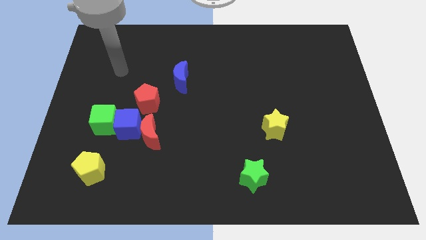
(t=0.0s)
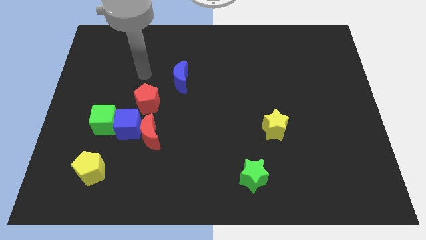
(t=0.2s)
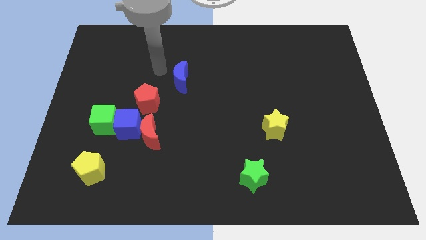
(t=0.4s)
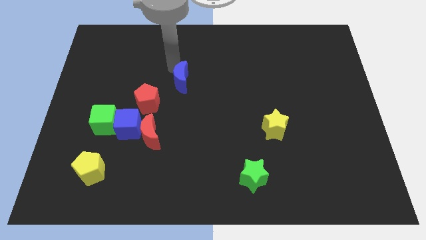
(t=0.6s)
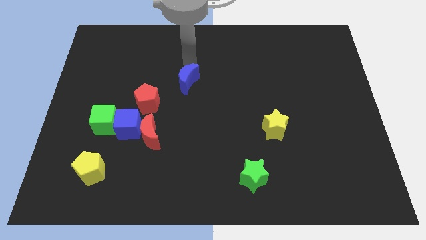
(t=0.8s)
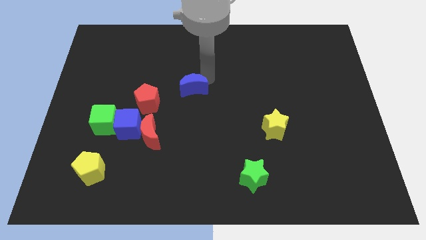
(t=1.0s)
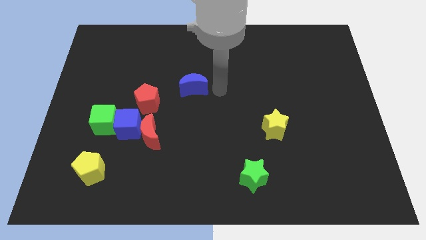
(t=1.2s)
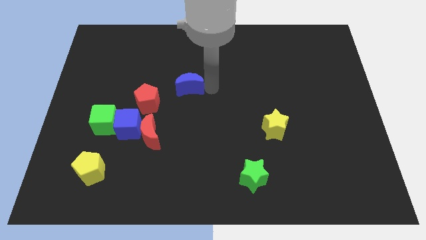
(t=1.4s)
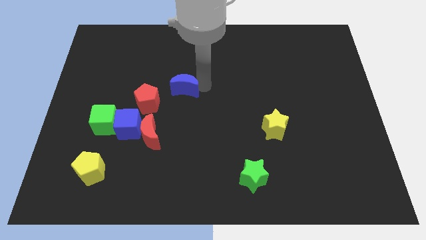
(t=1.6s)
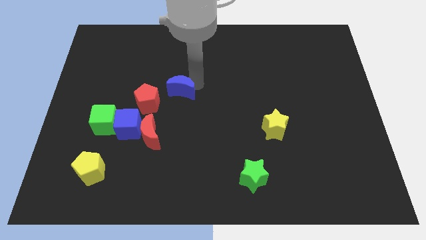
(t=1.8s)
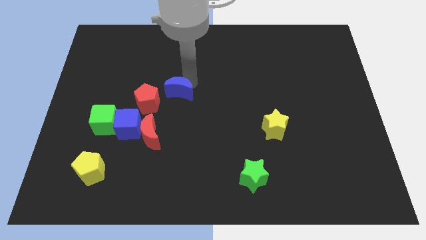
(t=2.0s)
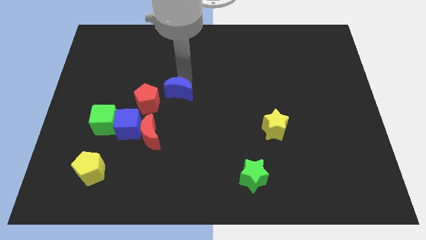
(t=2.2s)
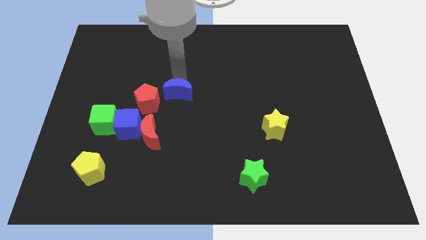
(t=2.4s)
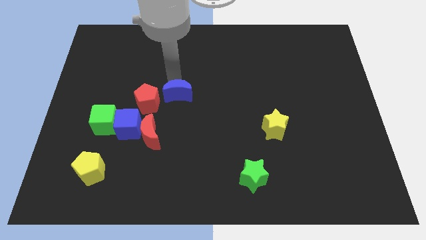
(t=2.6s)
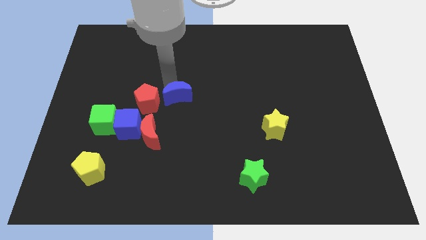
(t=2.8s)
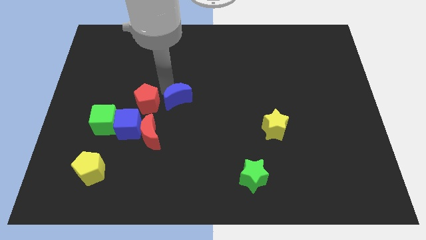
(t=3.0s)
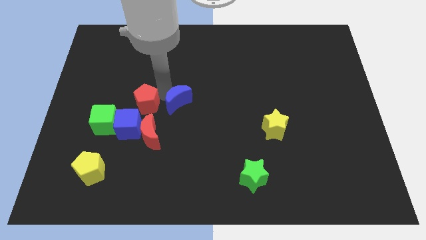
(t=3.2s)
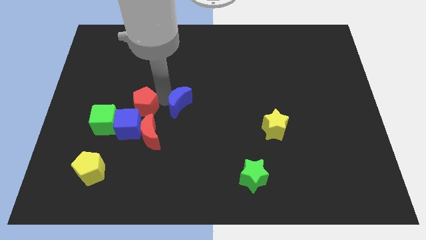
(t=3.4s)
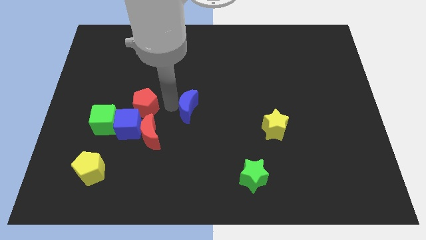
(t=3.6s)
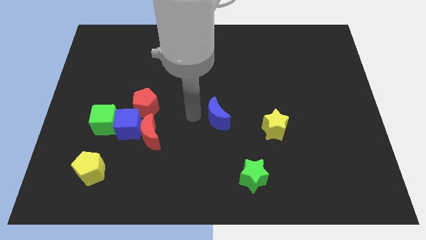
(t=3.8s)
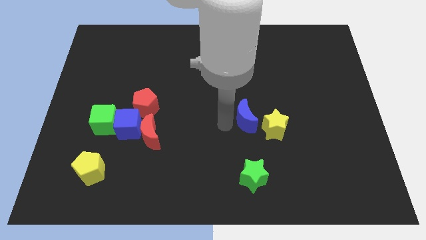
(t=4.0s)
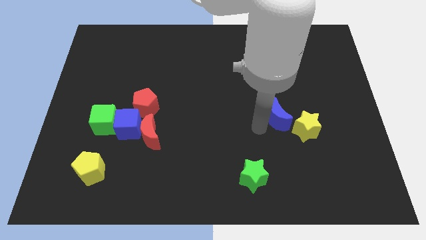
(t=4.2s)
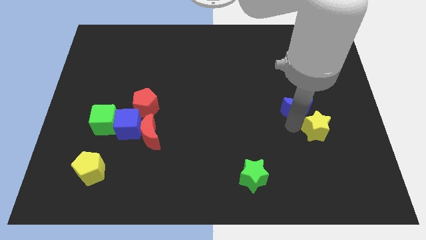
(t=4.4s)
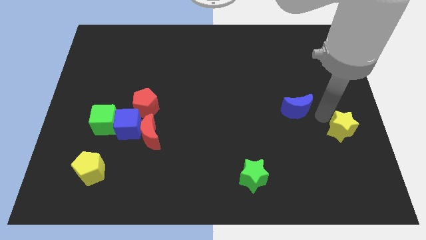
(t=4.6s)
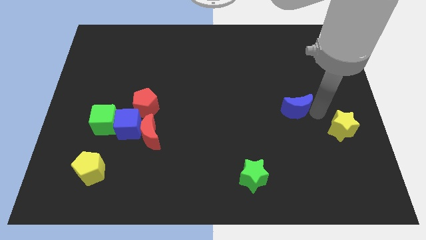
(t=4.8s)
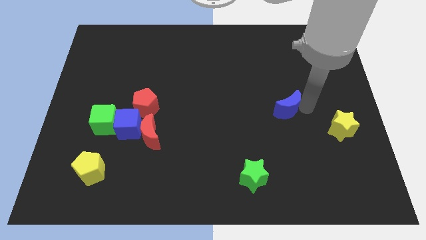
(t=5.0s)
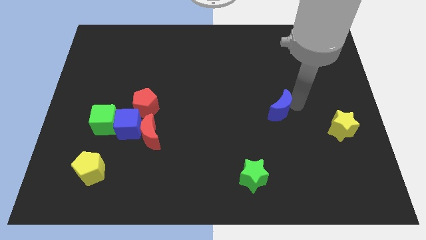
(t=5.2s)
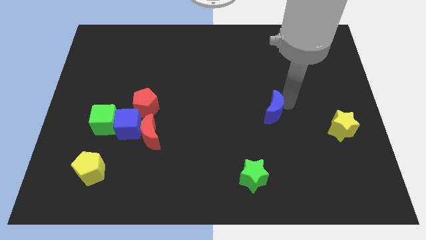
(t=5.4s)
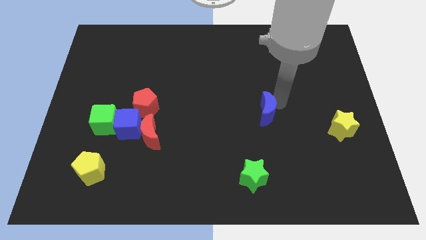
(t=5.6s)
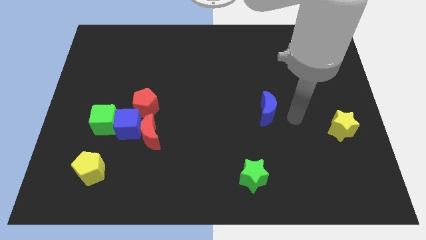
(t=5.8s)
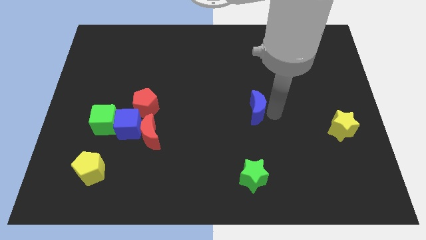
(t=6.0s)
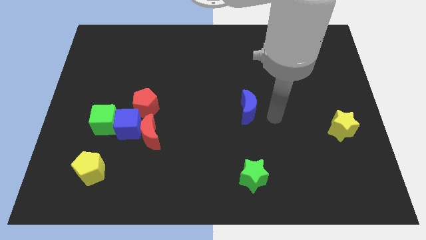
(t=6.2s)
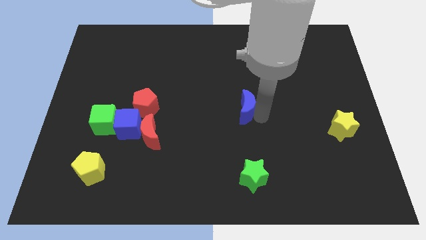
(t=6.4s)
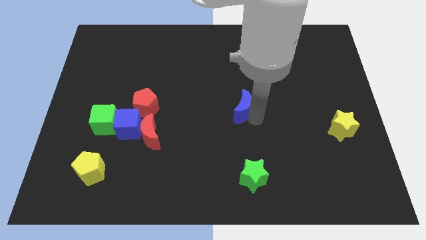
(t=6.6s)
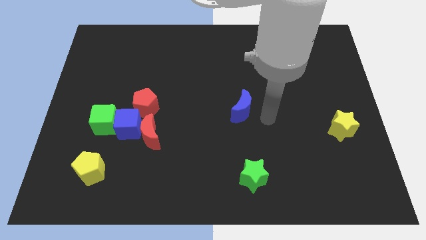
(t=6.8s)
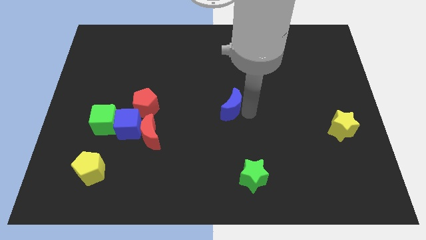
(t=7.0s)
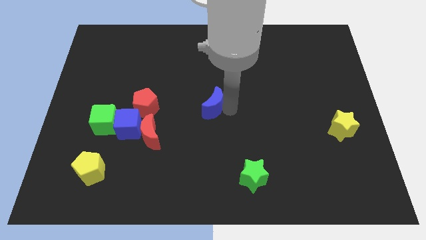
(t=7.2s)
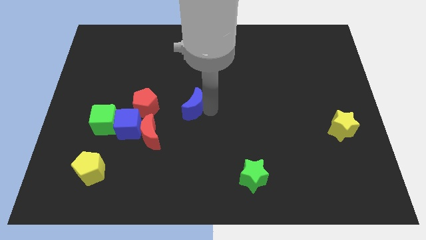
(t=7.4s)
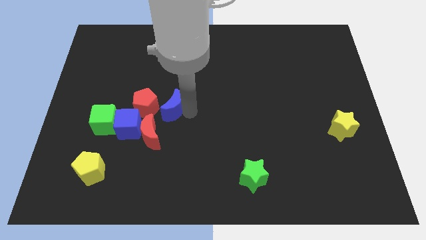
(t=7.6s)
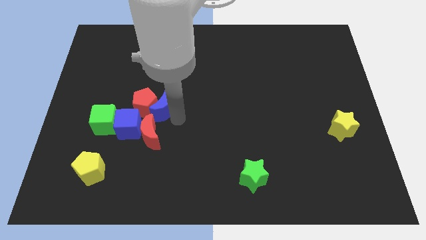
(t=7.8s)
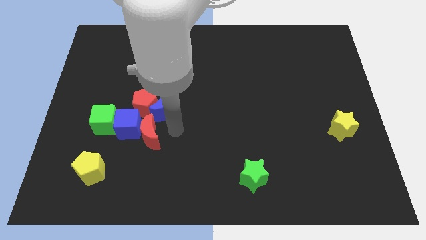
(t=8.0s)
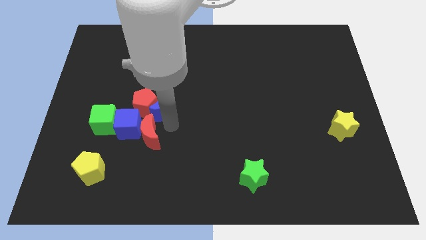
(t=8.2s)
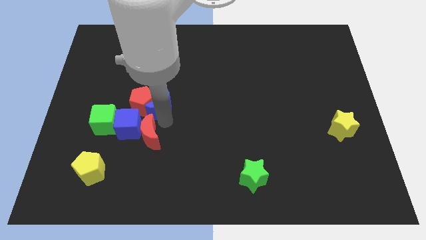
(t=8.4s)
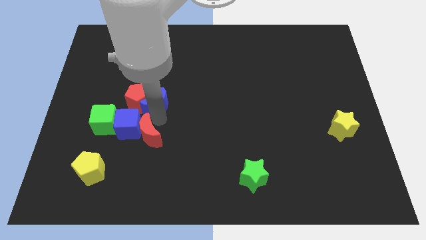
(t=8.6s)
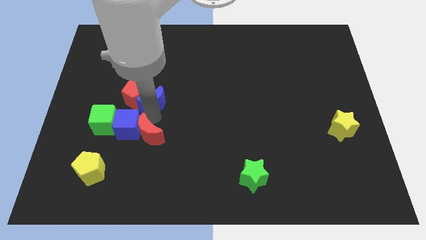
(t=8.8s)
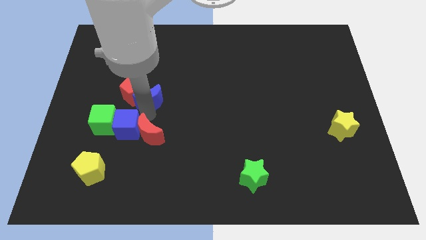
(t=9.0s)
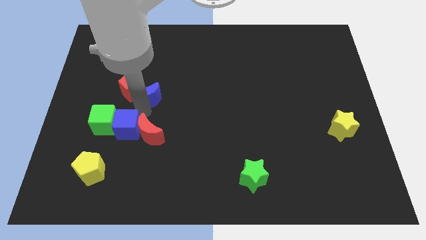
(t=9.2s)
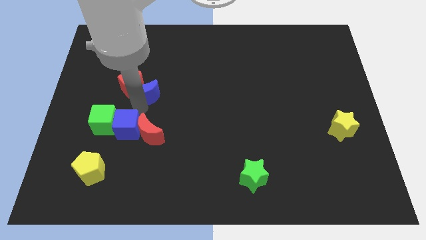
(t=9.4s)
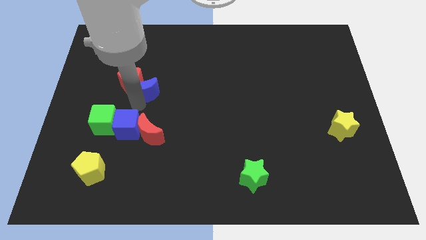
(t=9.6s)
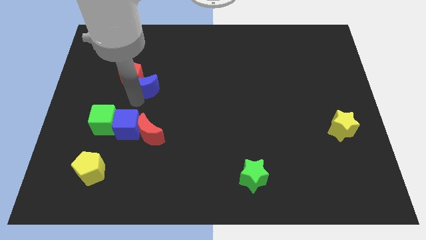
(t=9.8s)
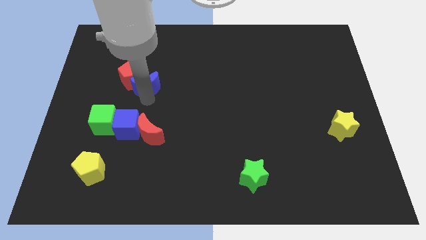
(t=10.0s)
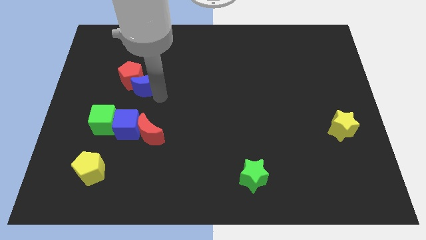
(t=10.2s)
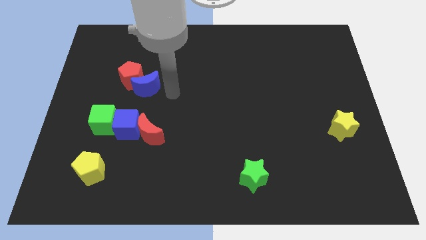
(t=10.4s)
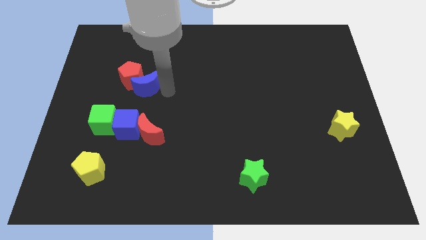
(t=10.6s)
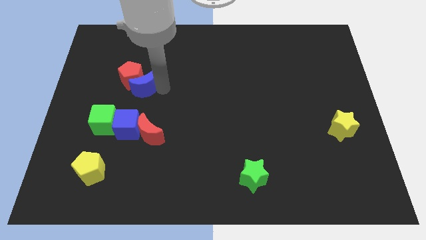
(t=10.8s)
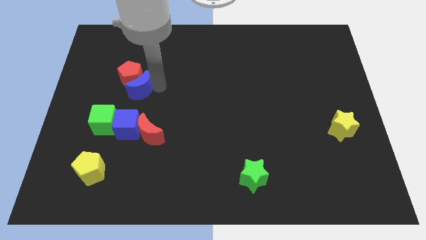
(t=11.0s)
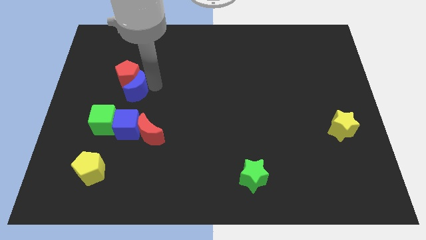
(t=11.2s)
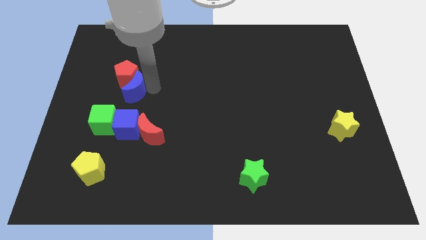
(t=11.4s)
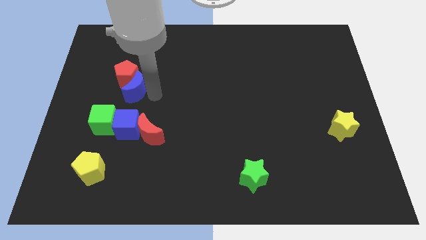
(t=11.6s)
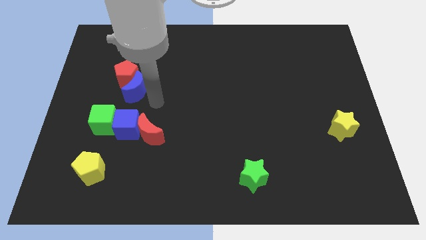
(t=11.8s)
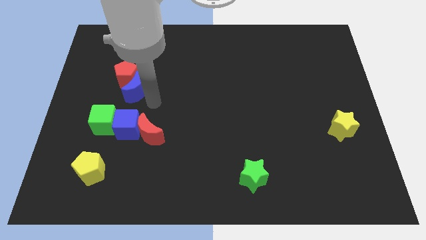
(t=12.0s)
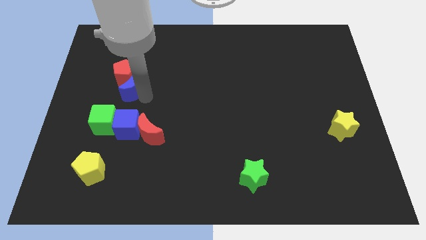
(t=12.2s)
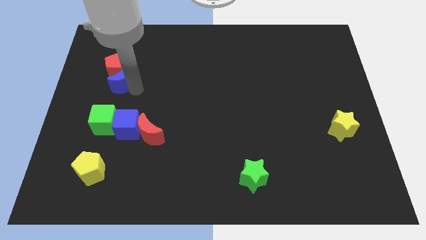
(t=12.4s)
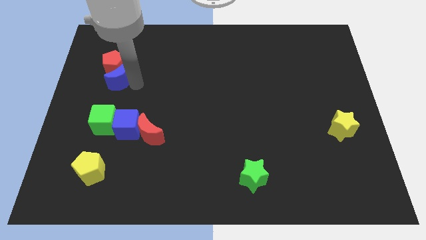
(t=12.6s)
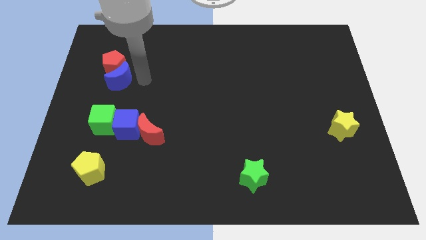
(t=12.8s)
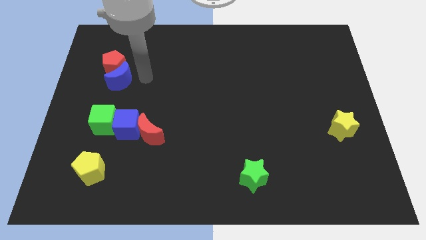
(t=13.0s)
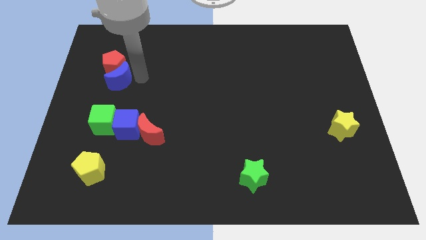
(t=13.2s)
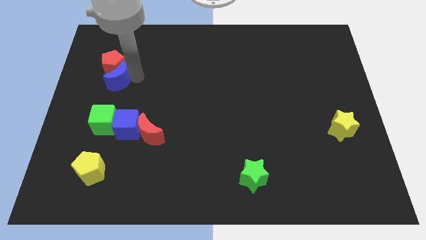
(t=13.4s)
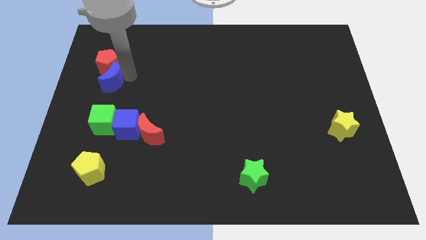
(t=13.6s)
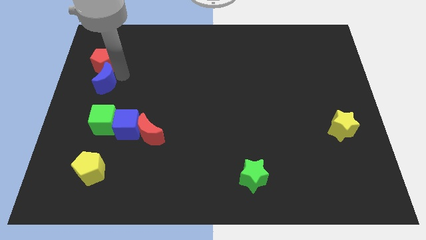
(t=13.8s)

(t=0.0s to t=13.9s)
push the blue moon to the center left
